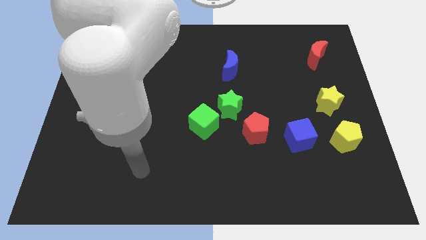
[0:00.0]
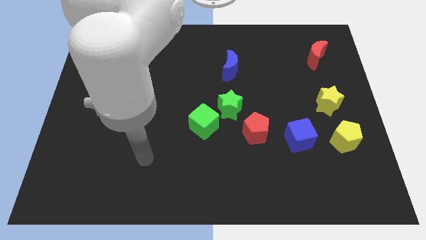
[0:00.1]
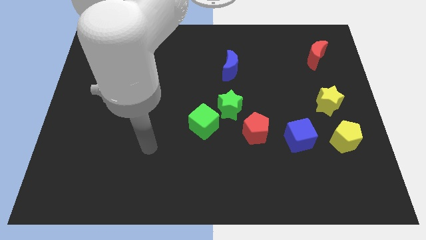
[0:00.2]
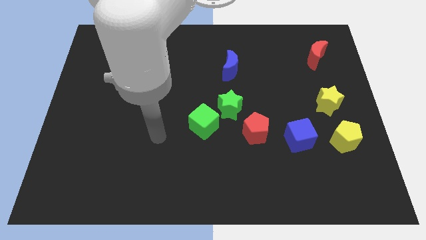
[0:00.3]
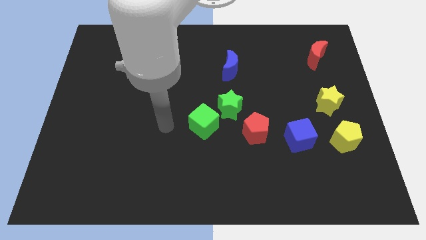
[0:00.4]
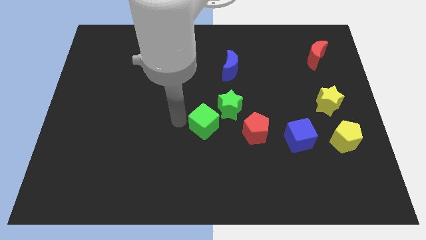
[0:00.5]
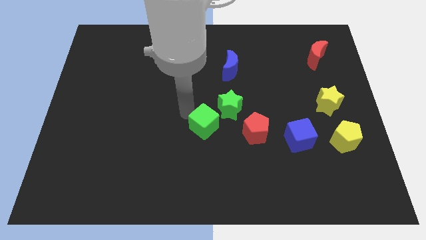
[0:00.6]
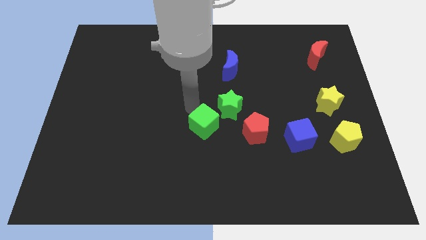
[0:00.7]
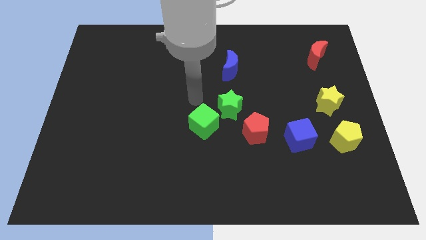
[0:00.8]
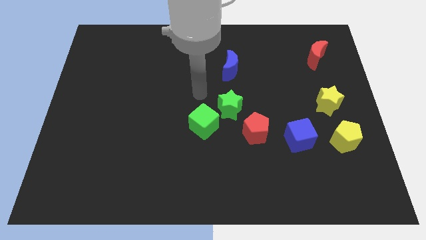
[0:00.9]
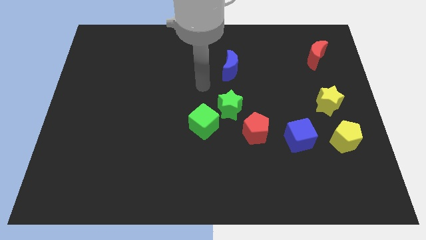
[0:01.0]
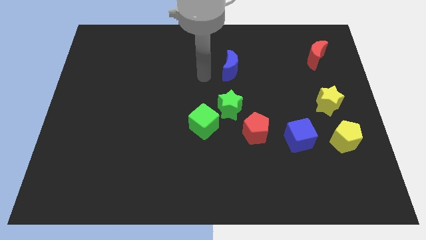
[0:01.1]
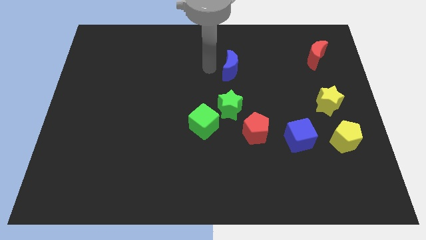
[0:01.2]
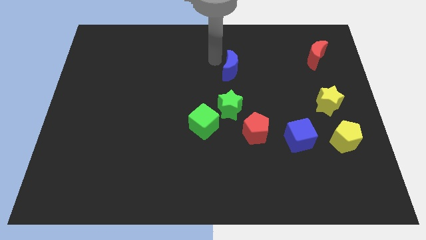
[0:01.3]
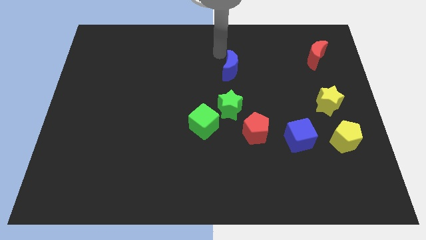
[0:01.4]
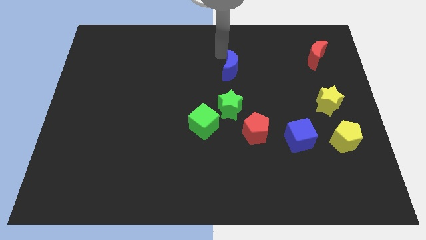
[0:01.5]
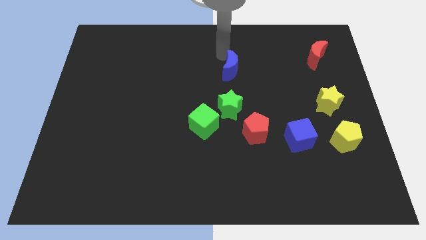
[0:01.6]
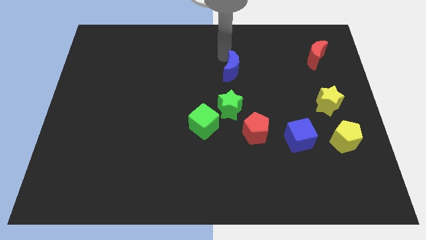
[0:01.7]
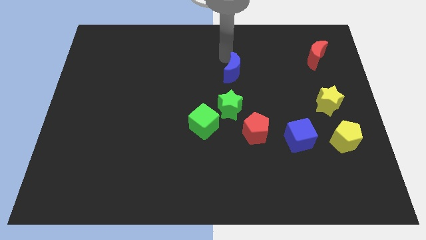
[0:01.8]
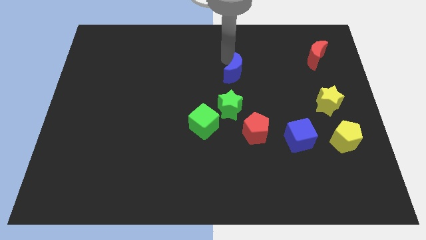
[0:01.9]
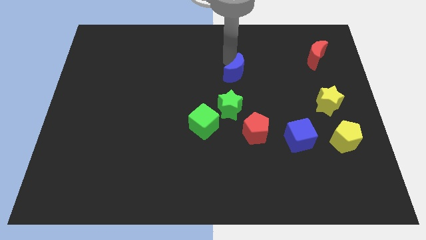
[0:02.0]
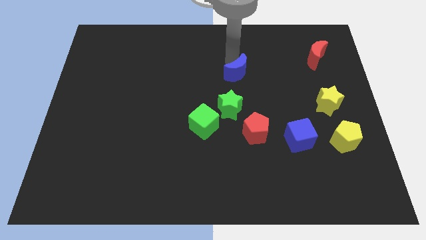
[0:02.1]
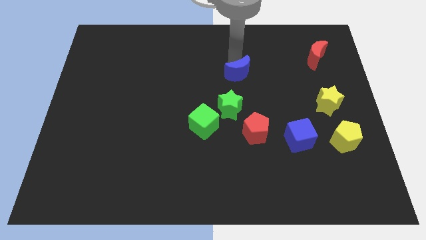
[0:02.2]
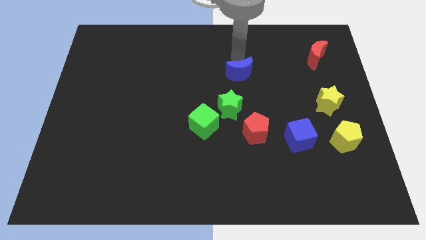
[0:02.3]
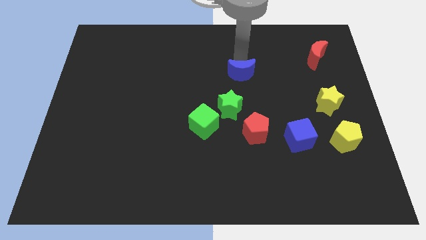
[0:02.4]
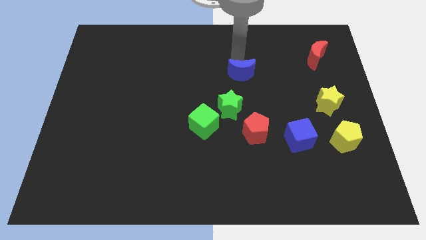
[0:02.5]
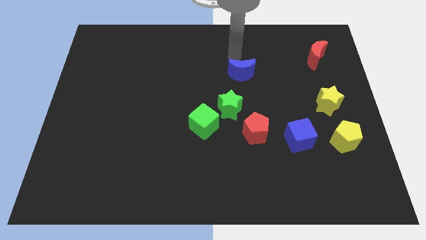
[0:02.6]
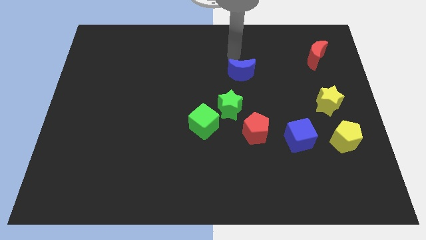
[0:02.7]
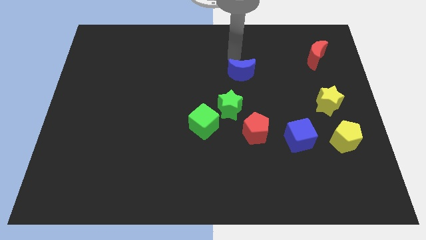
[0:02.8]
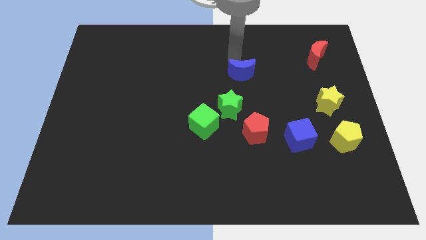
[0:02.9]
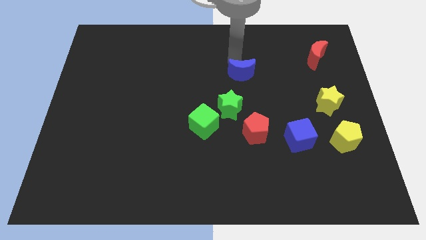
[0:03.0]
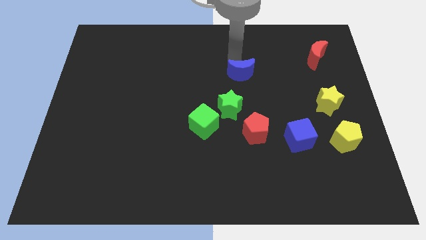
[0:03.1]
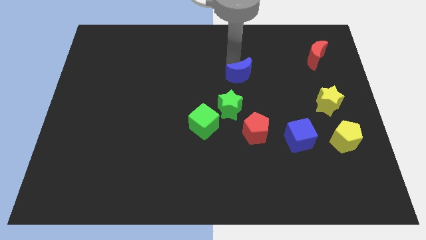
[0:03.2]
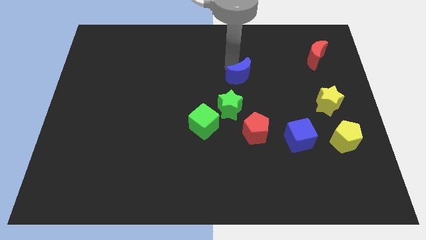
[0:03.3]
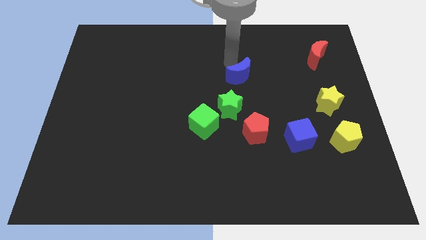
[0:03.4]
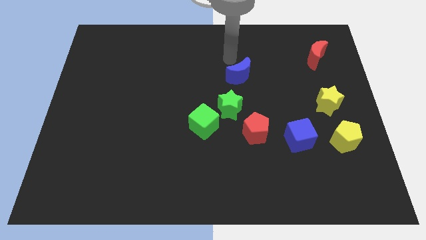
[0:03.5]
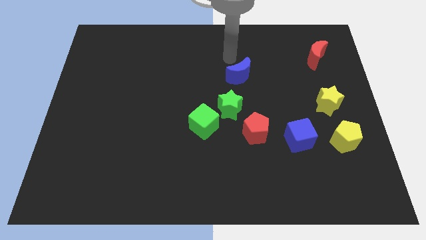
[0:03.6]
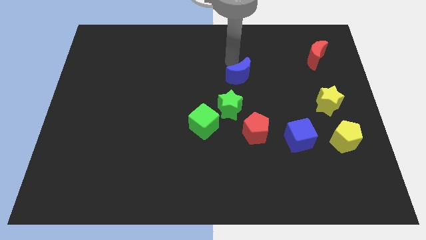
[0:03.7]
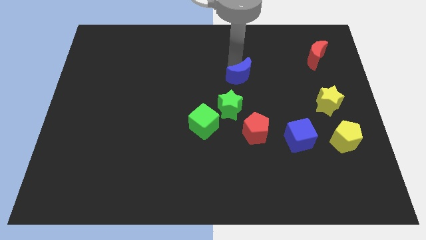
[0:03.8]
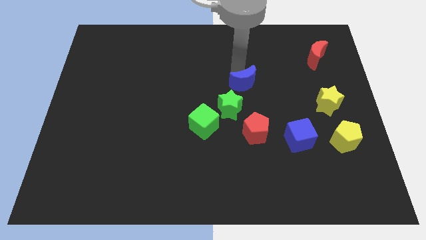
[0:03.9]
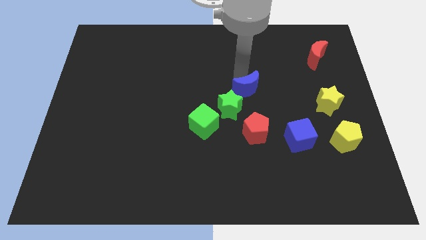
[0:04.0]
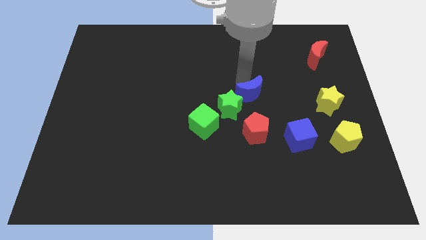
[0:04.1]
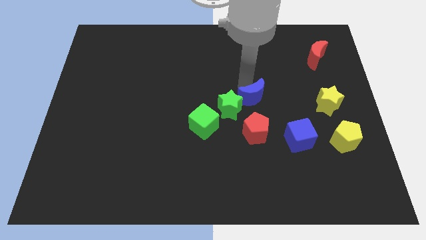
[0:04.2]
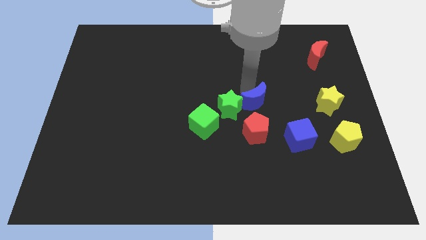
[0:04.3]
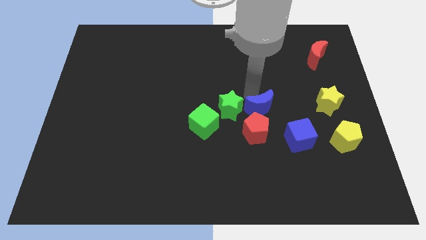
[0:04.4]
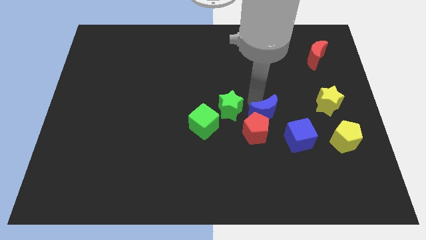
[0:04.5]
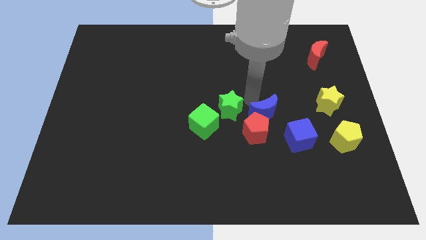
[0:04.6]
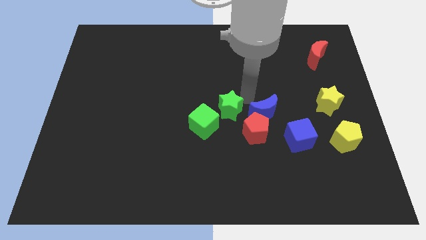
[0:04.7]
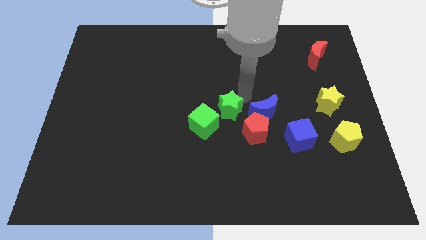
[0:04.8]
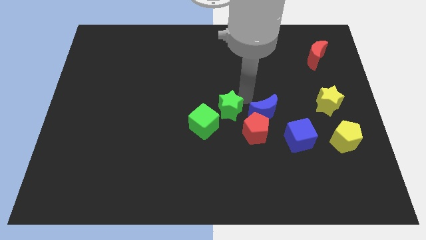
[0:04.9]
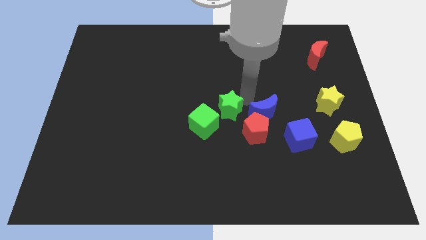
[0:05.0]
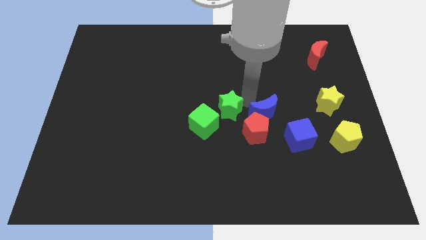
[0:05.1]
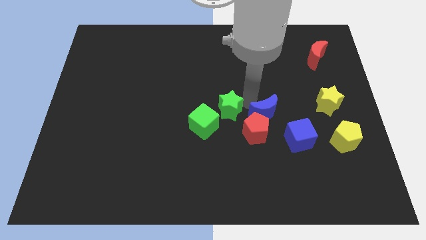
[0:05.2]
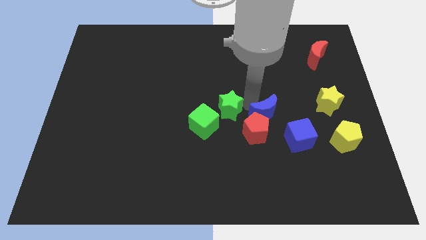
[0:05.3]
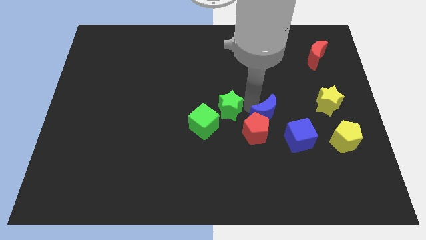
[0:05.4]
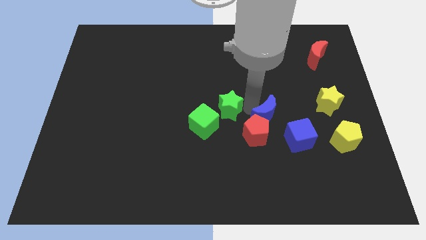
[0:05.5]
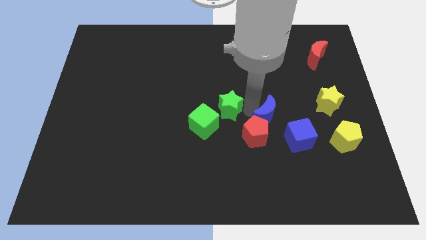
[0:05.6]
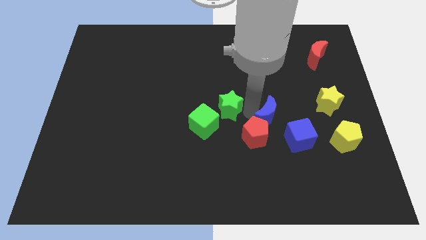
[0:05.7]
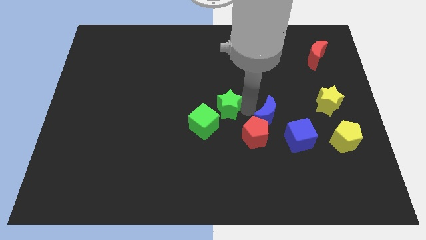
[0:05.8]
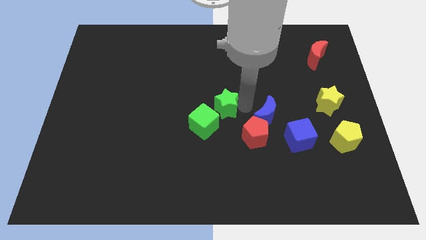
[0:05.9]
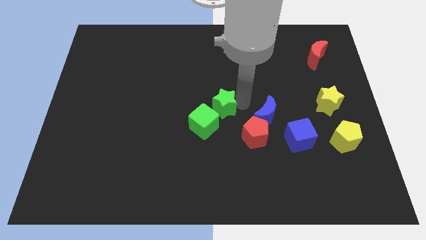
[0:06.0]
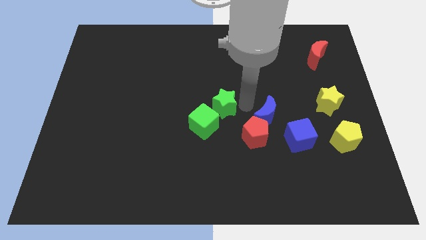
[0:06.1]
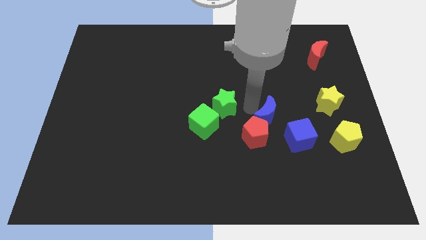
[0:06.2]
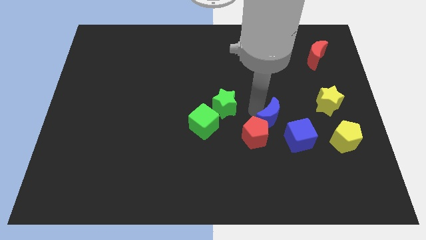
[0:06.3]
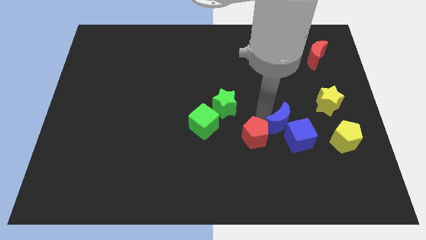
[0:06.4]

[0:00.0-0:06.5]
move the blue moon to the blue cube

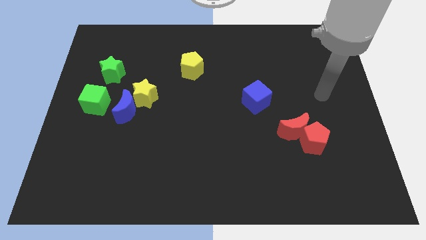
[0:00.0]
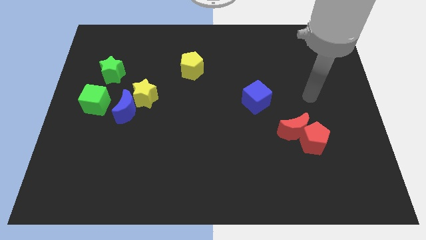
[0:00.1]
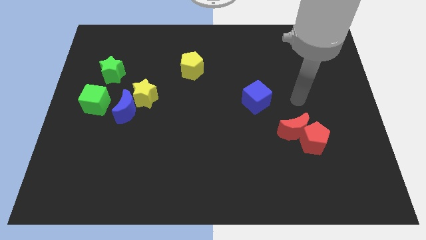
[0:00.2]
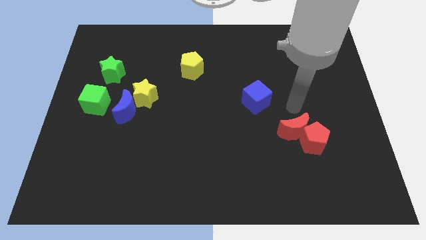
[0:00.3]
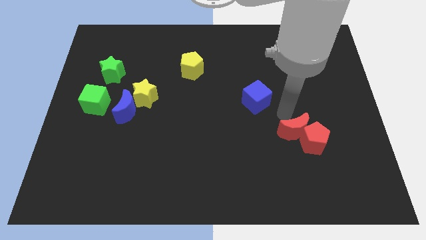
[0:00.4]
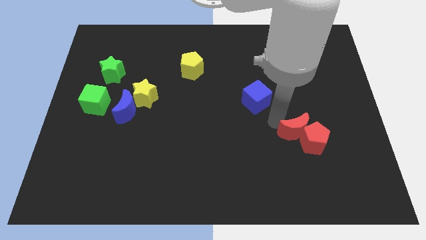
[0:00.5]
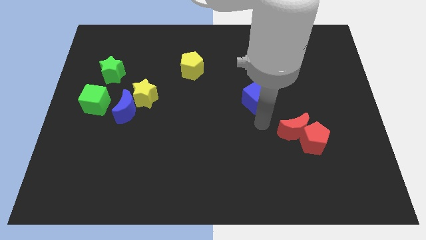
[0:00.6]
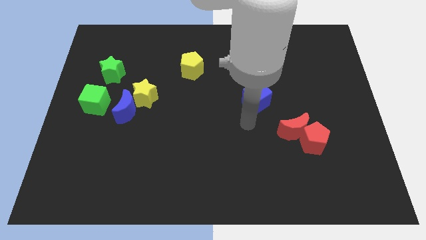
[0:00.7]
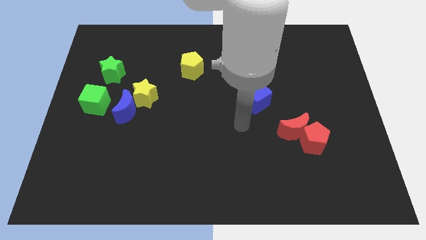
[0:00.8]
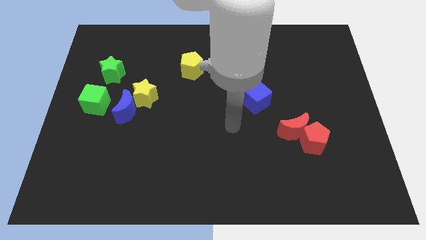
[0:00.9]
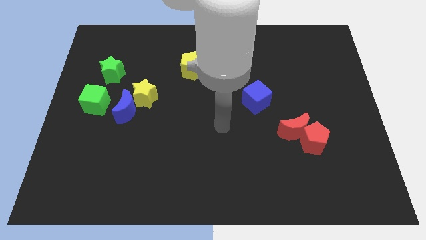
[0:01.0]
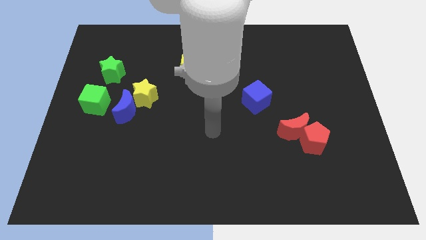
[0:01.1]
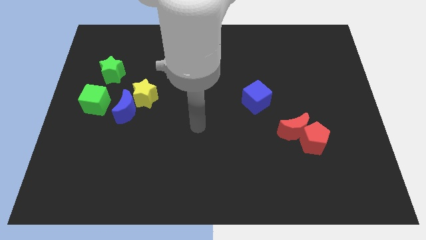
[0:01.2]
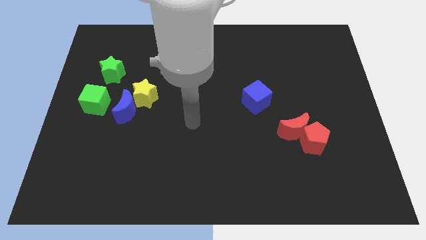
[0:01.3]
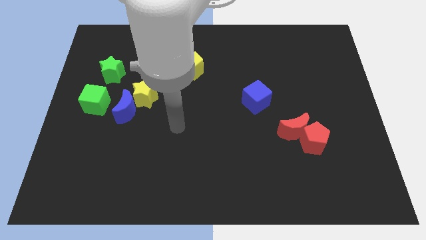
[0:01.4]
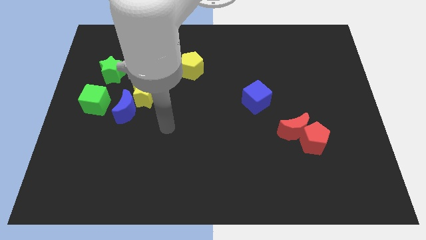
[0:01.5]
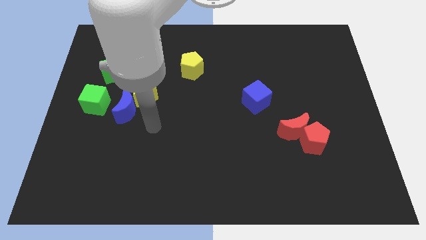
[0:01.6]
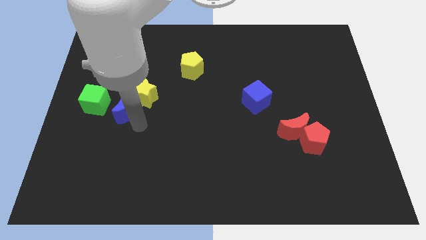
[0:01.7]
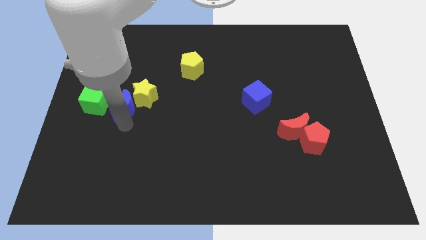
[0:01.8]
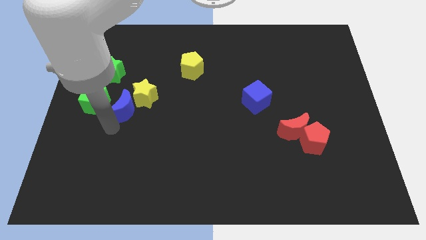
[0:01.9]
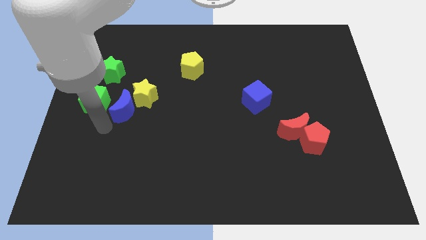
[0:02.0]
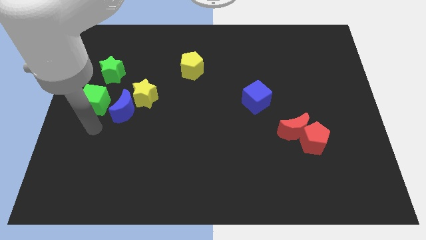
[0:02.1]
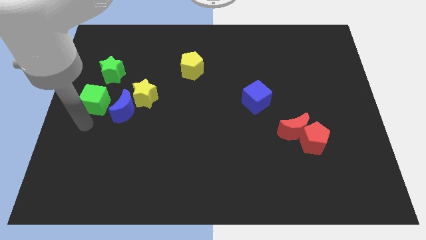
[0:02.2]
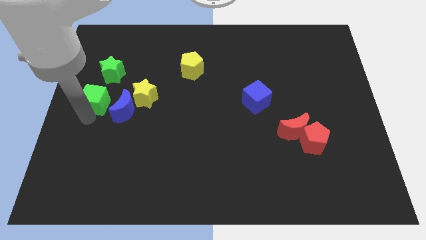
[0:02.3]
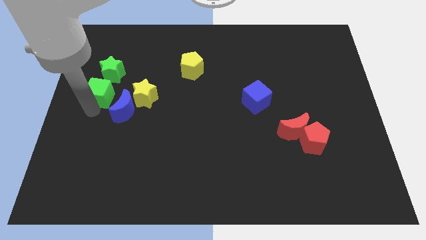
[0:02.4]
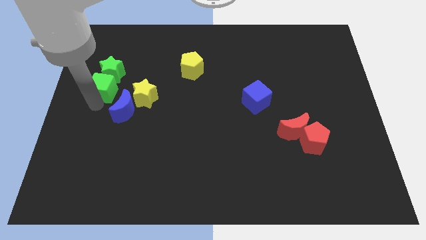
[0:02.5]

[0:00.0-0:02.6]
move the green cube to the green star
